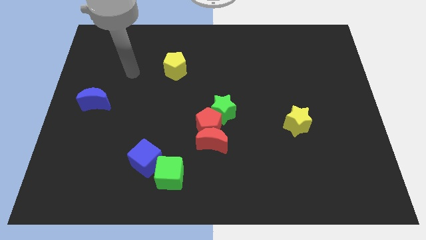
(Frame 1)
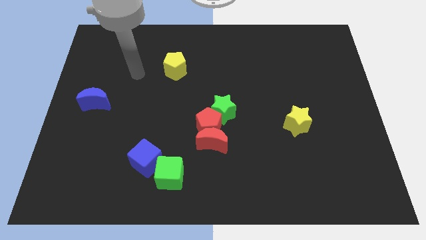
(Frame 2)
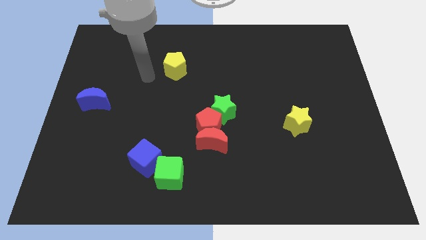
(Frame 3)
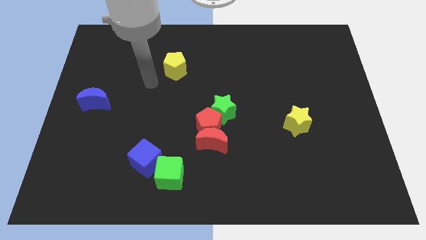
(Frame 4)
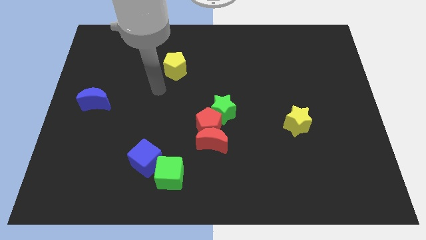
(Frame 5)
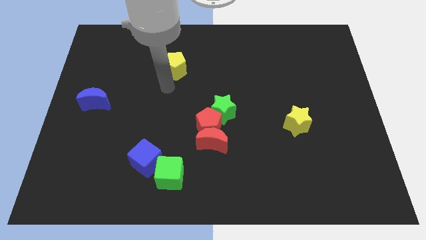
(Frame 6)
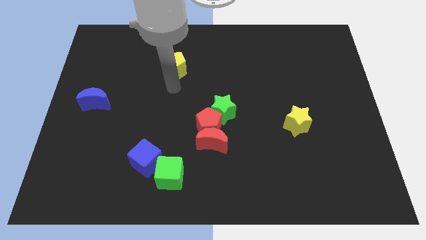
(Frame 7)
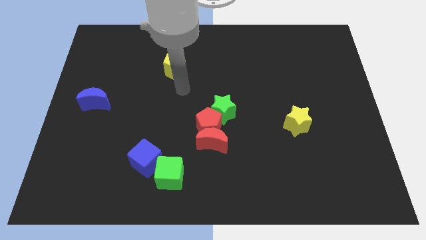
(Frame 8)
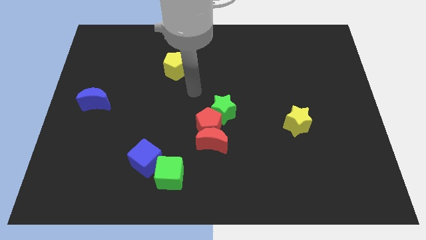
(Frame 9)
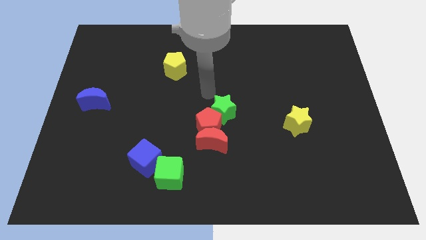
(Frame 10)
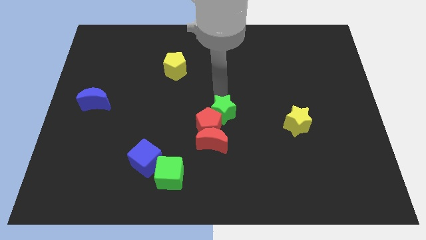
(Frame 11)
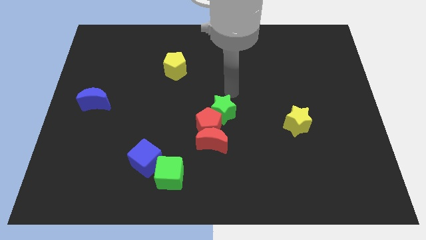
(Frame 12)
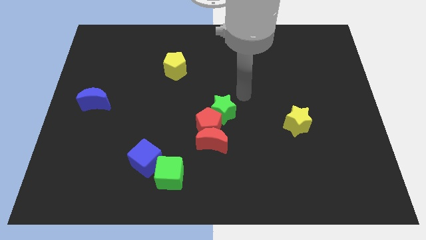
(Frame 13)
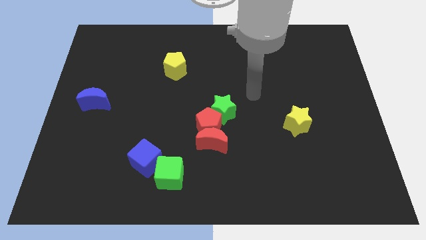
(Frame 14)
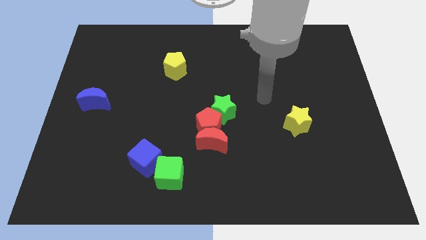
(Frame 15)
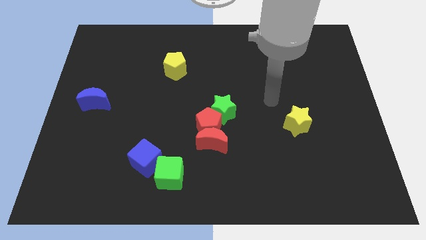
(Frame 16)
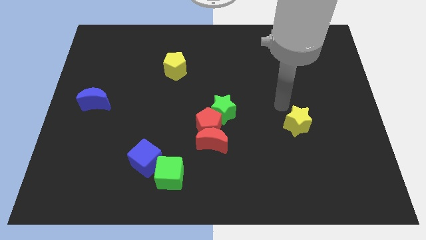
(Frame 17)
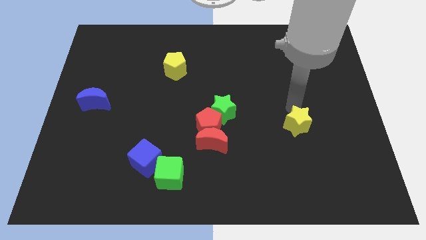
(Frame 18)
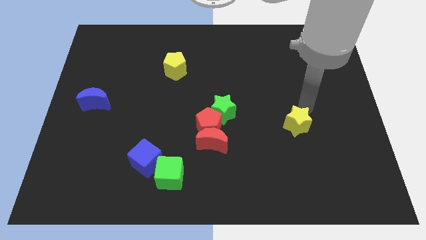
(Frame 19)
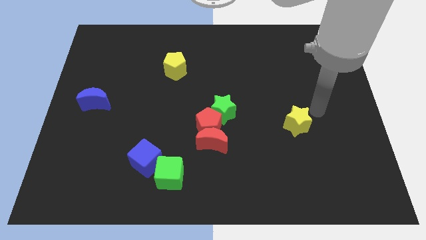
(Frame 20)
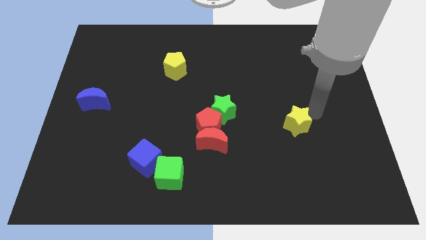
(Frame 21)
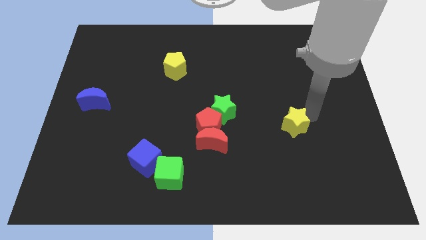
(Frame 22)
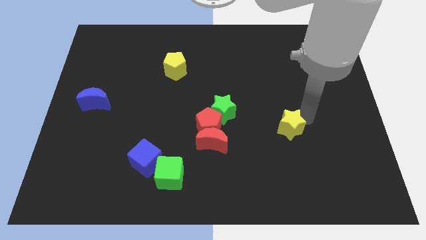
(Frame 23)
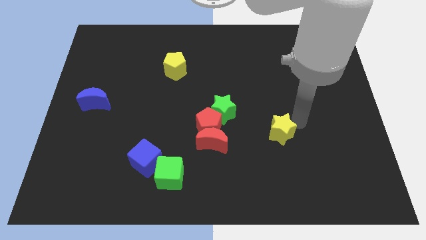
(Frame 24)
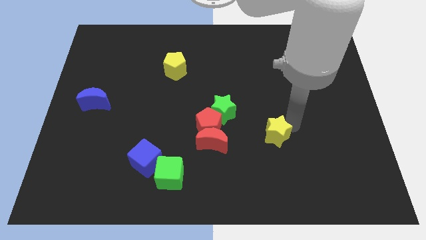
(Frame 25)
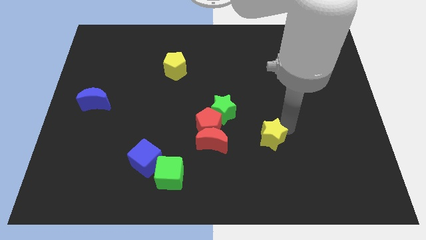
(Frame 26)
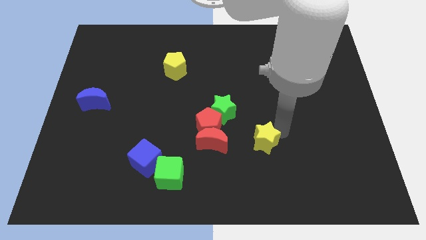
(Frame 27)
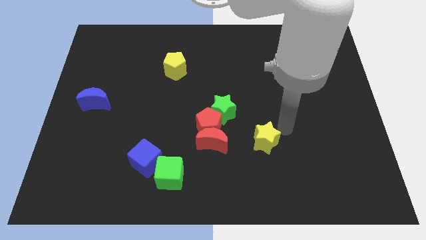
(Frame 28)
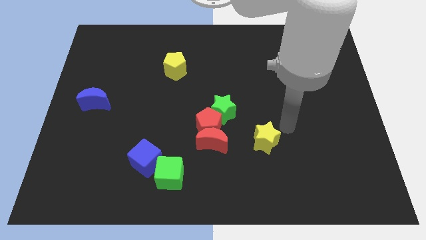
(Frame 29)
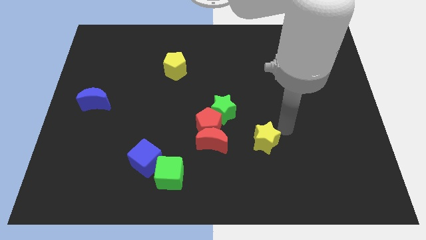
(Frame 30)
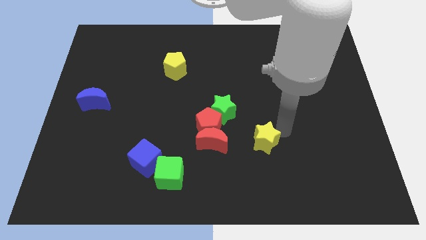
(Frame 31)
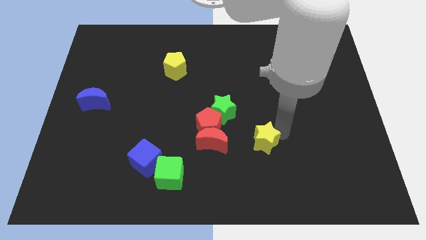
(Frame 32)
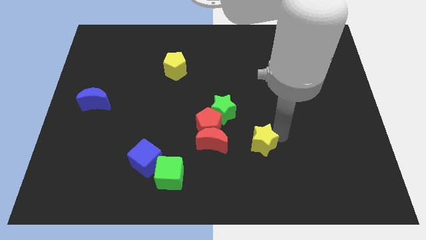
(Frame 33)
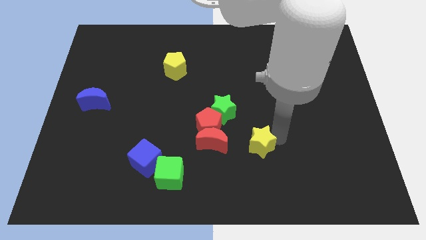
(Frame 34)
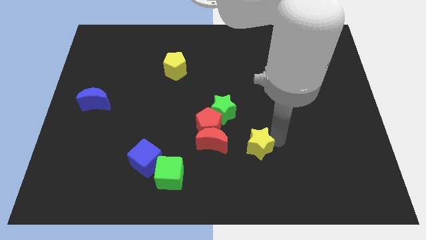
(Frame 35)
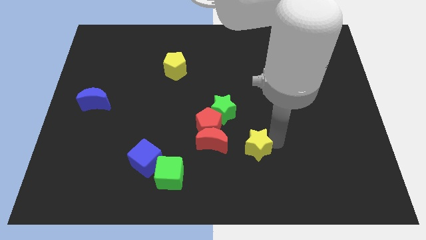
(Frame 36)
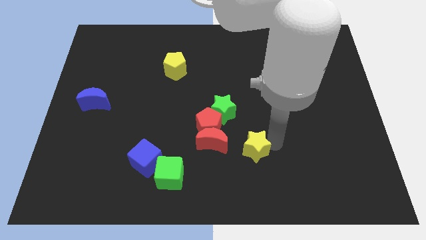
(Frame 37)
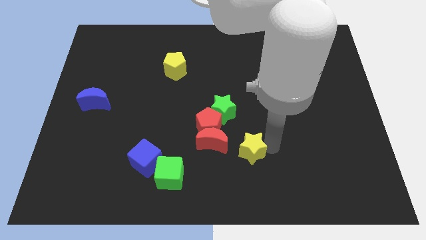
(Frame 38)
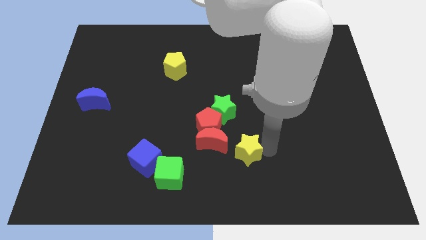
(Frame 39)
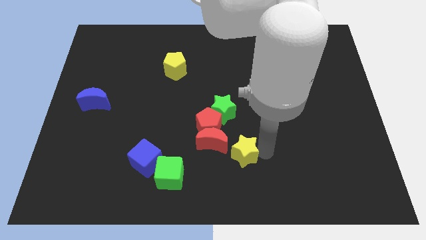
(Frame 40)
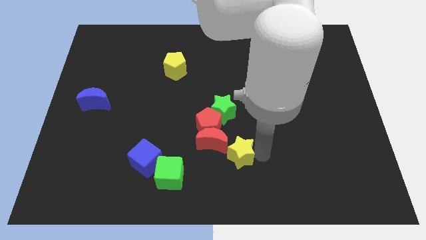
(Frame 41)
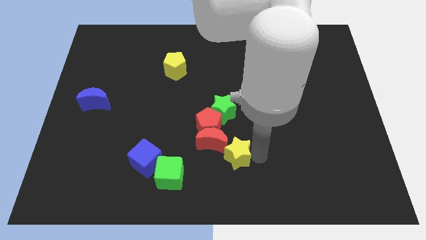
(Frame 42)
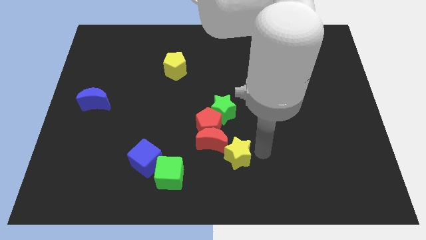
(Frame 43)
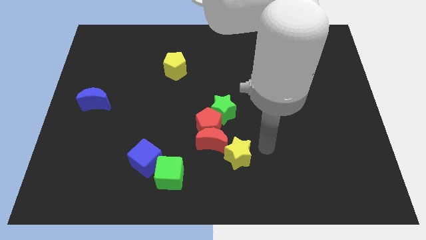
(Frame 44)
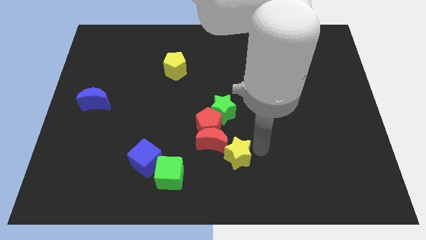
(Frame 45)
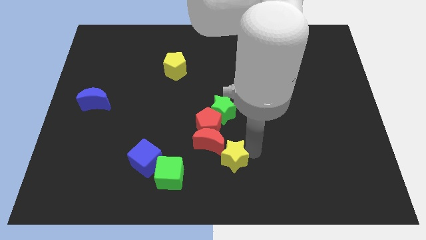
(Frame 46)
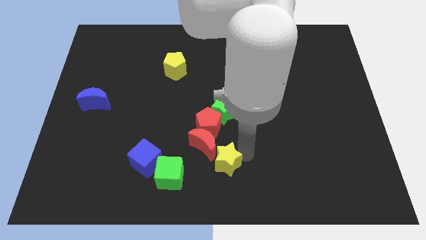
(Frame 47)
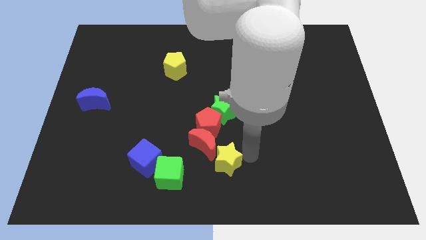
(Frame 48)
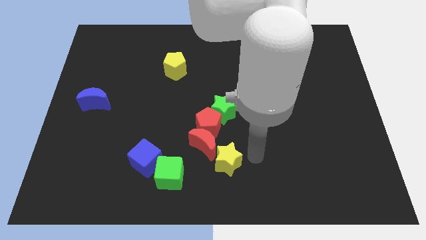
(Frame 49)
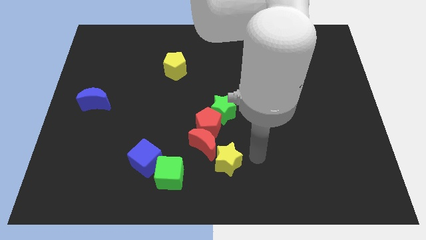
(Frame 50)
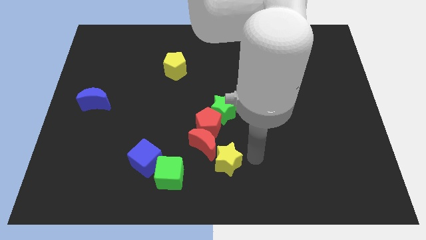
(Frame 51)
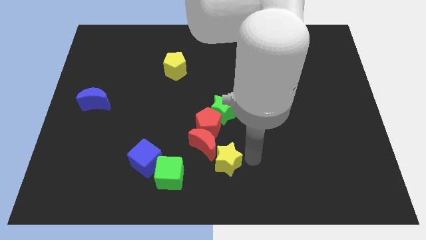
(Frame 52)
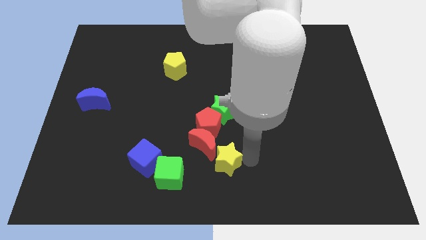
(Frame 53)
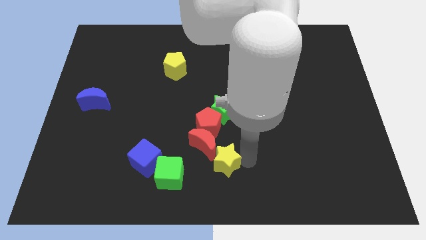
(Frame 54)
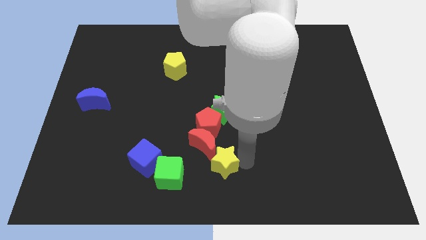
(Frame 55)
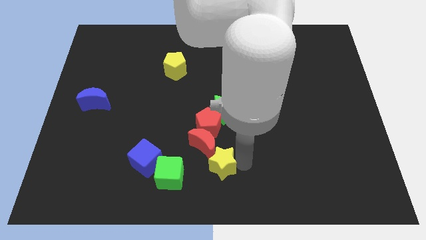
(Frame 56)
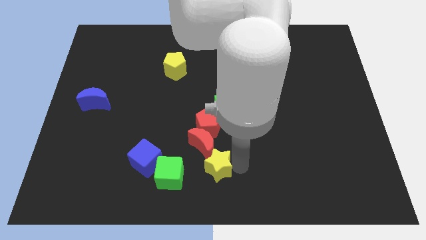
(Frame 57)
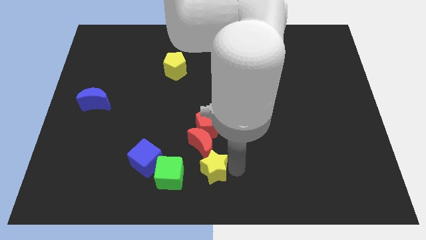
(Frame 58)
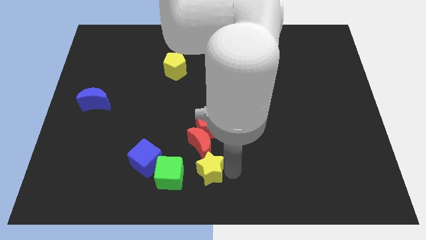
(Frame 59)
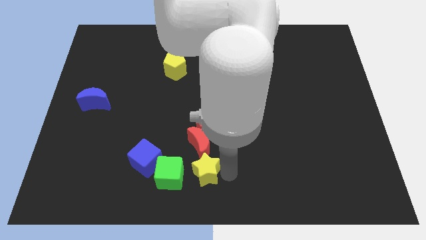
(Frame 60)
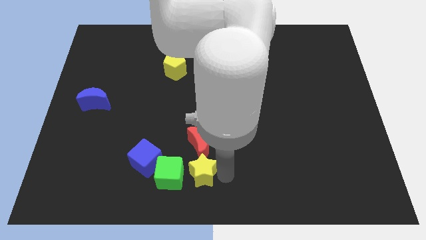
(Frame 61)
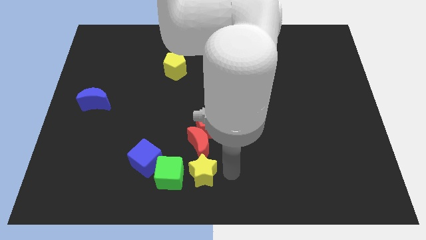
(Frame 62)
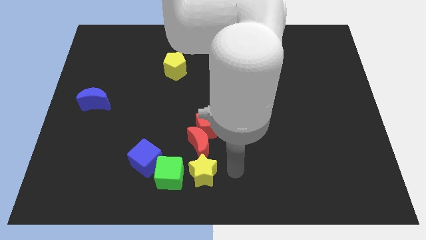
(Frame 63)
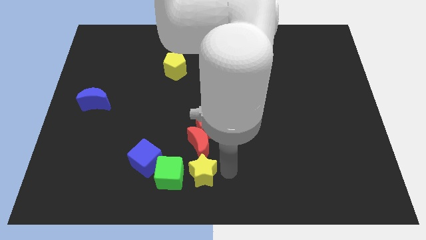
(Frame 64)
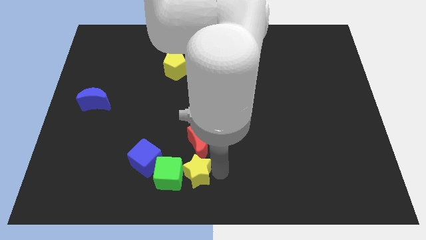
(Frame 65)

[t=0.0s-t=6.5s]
put the yellow star to the green cube

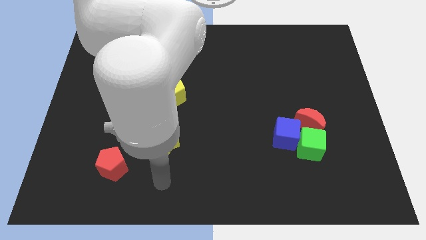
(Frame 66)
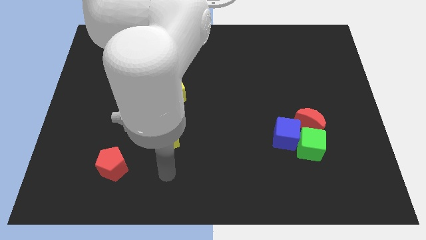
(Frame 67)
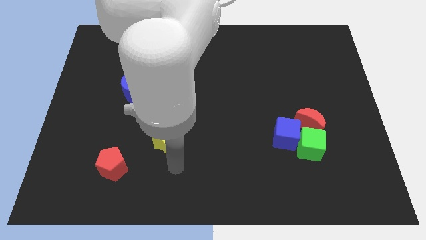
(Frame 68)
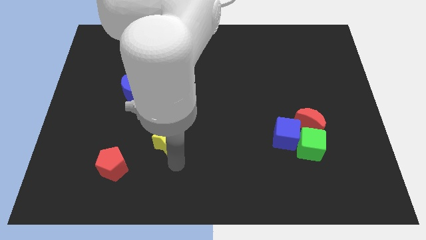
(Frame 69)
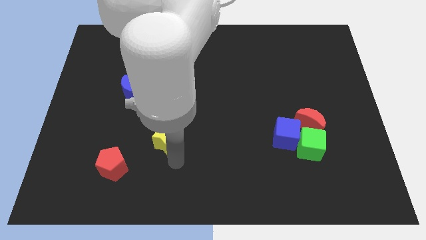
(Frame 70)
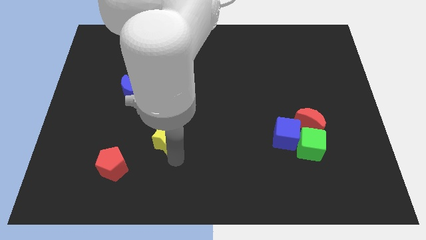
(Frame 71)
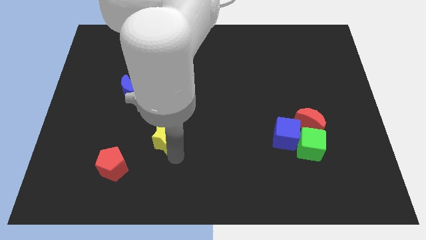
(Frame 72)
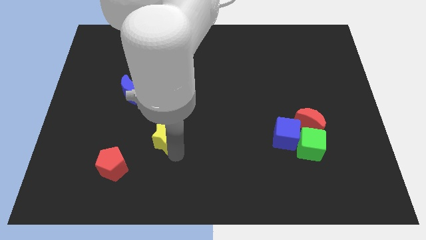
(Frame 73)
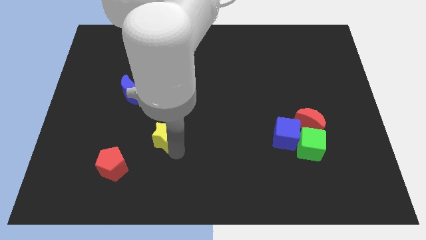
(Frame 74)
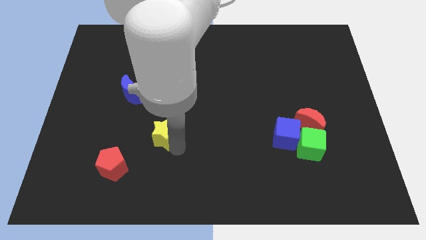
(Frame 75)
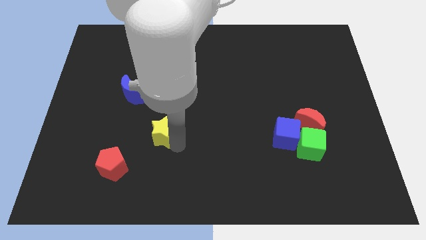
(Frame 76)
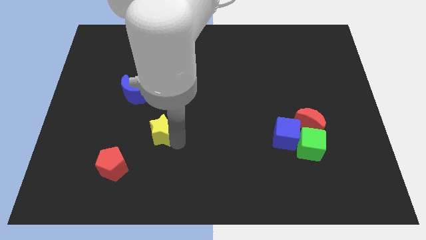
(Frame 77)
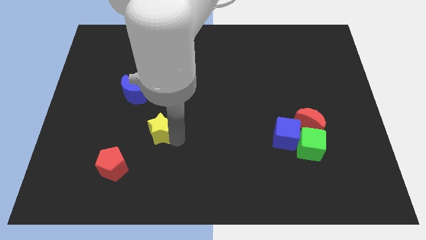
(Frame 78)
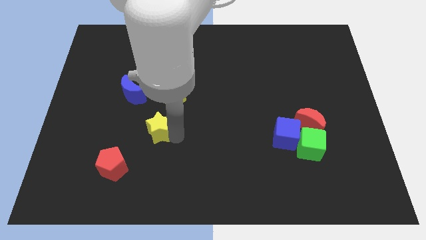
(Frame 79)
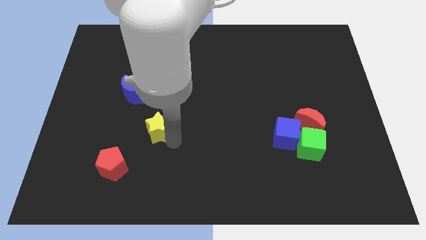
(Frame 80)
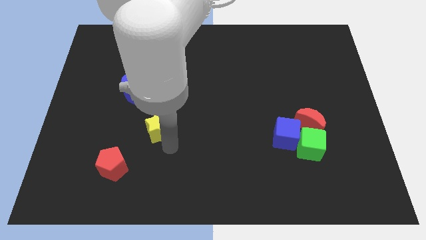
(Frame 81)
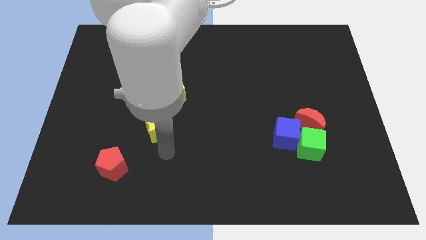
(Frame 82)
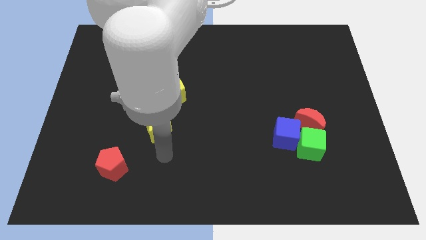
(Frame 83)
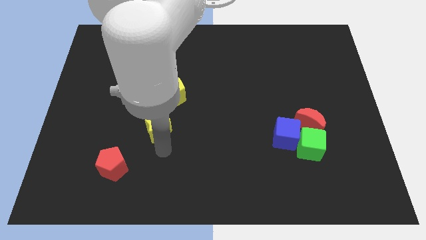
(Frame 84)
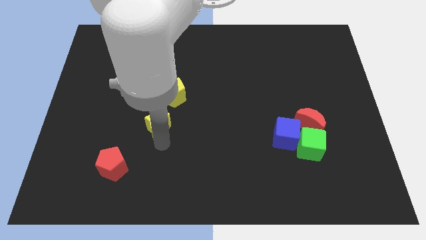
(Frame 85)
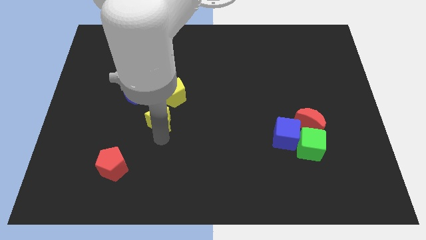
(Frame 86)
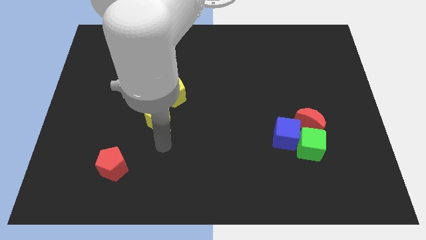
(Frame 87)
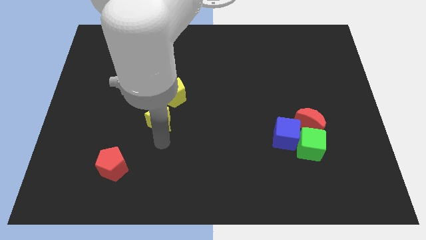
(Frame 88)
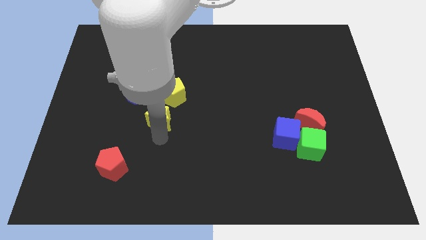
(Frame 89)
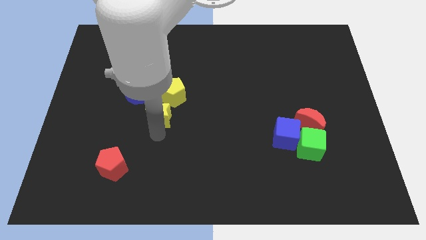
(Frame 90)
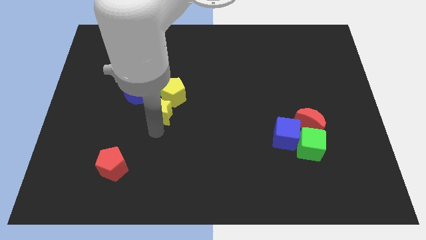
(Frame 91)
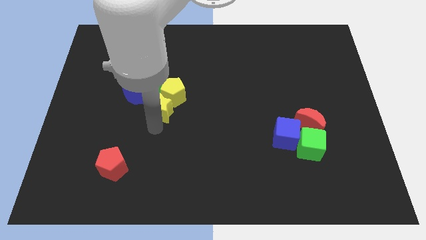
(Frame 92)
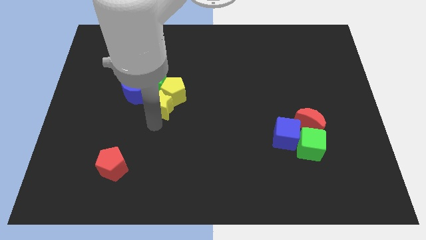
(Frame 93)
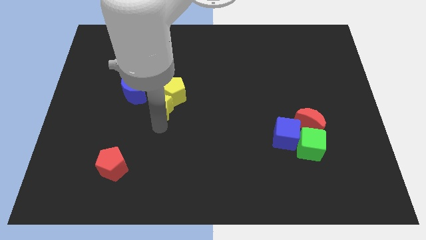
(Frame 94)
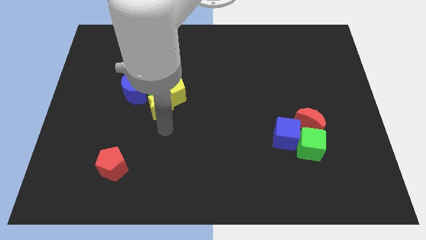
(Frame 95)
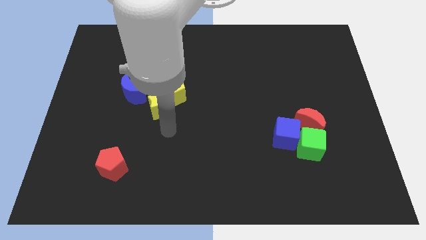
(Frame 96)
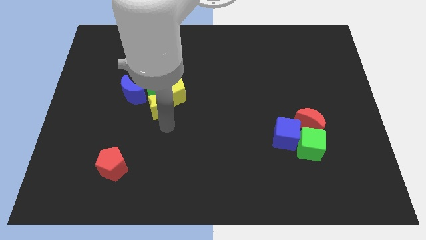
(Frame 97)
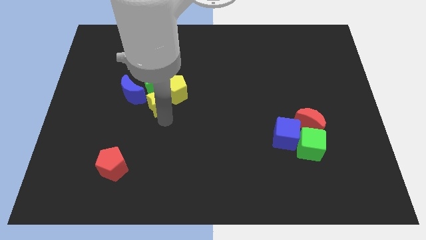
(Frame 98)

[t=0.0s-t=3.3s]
slide the yellow star to the green star
